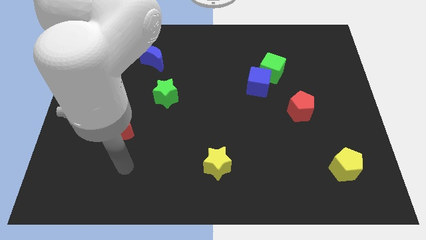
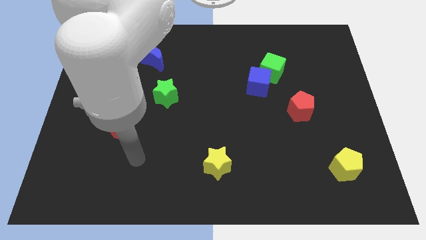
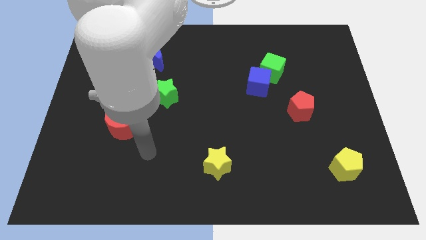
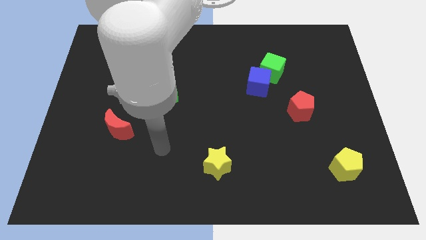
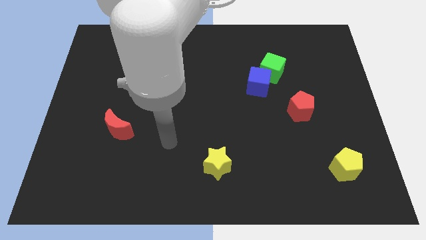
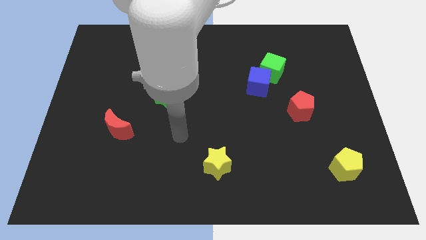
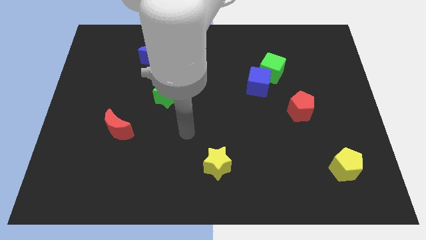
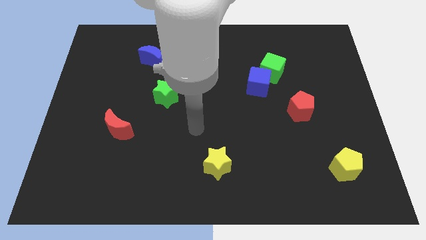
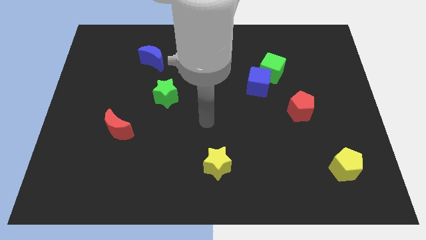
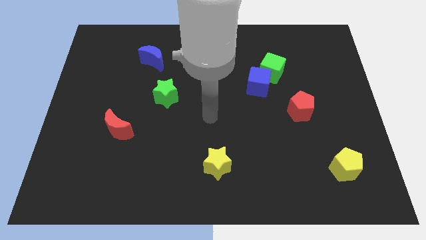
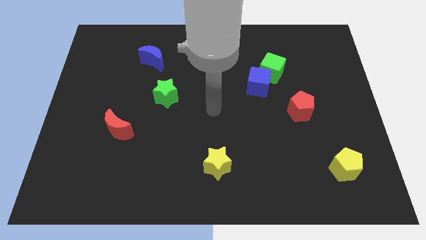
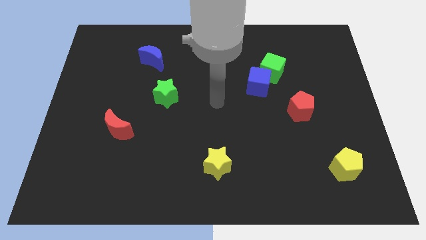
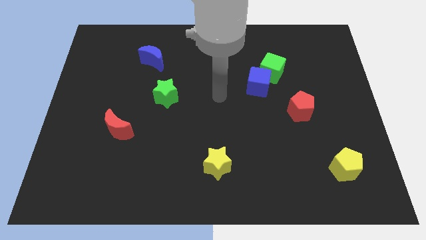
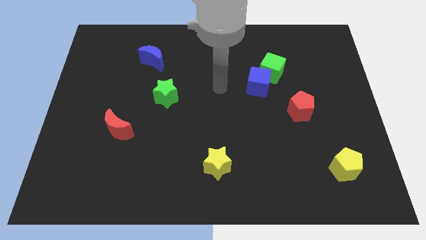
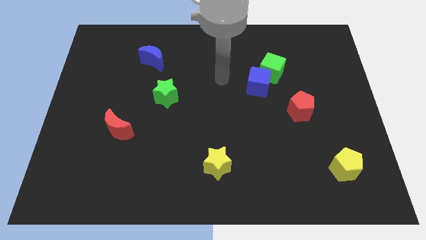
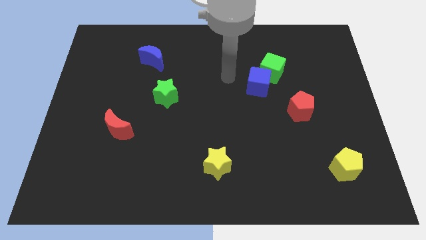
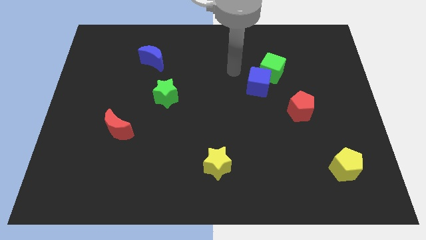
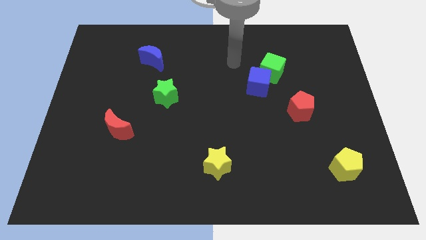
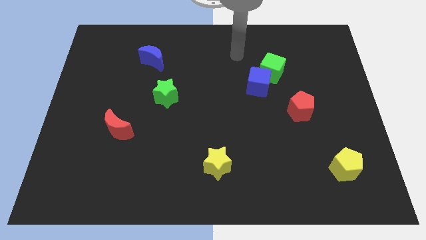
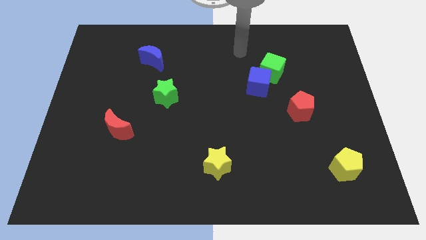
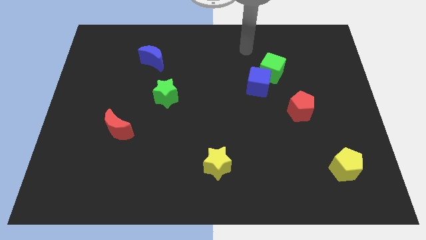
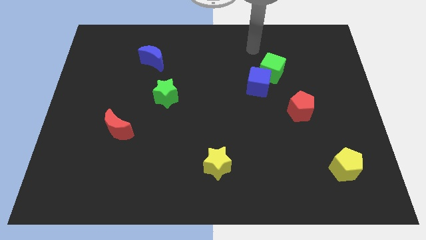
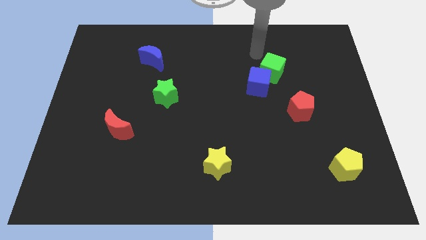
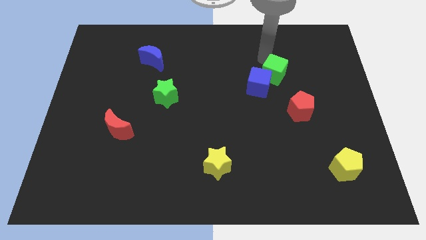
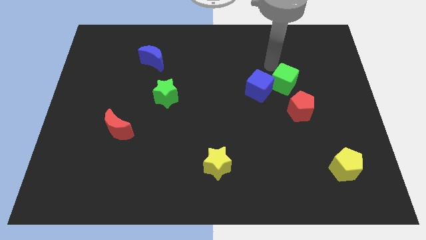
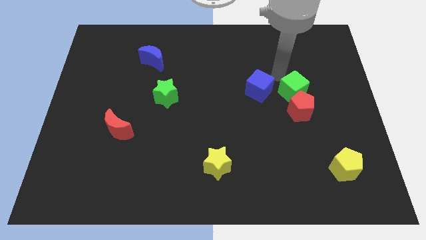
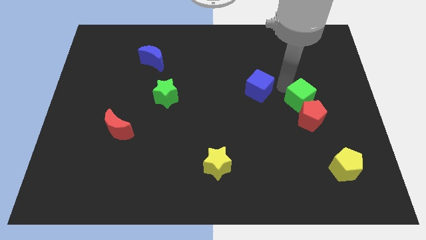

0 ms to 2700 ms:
pull the blue cube apart from the green cube

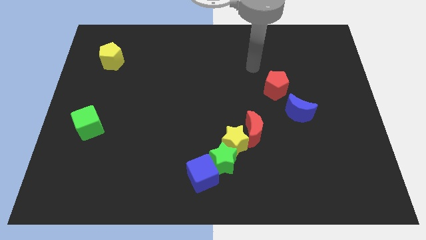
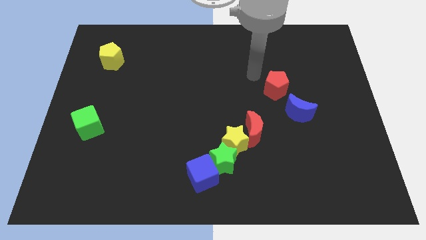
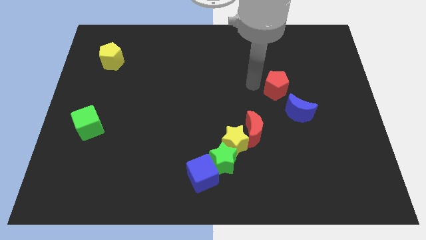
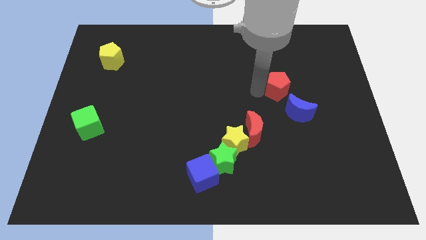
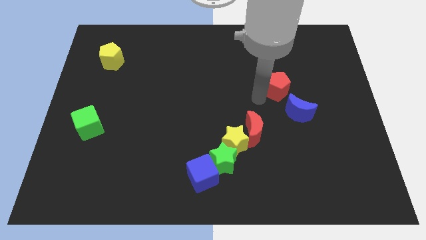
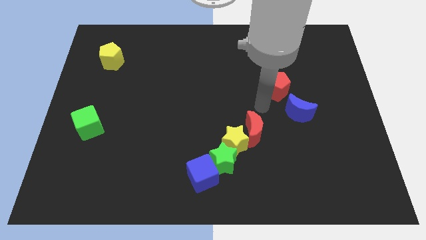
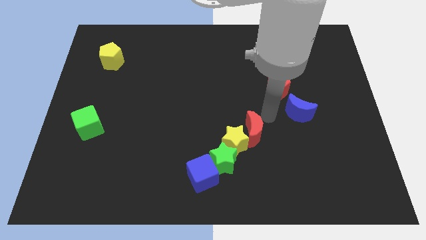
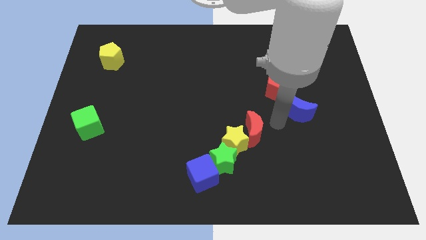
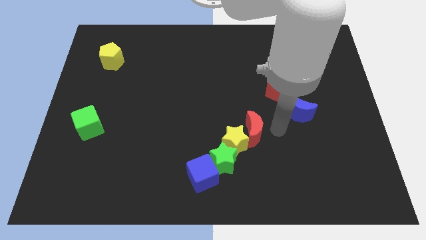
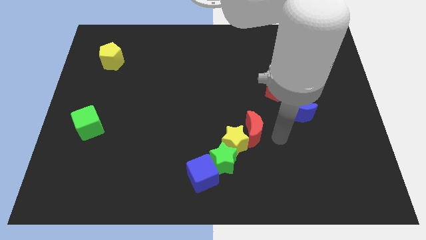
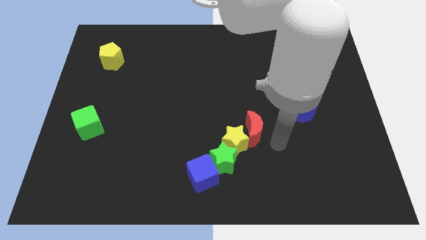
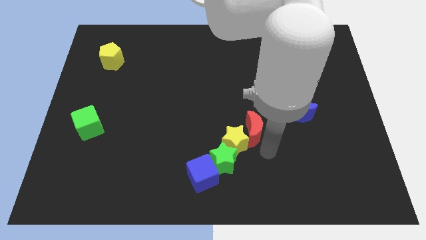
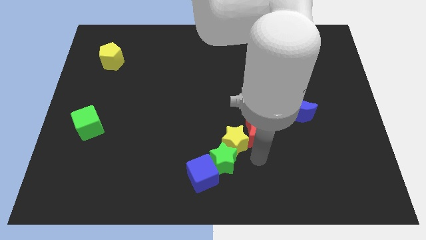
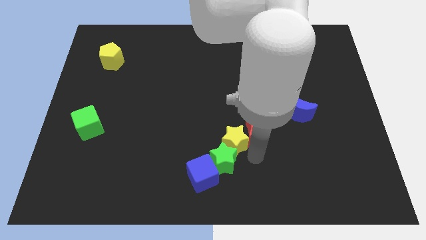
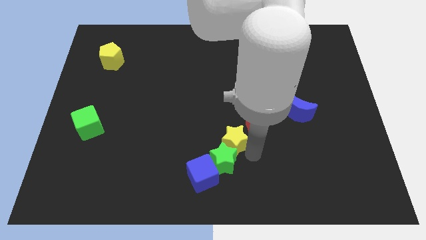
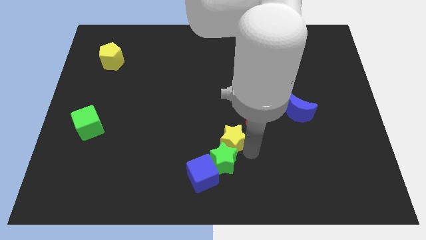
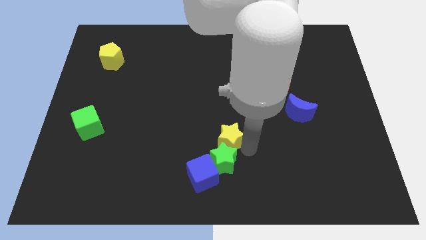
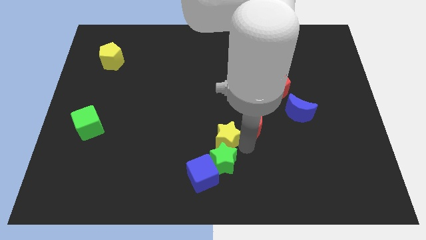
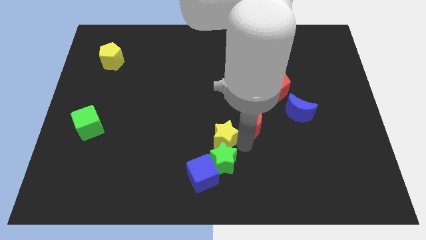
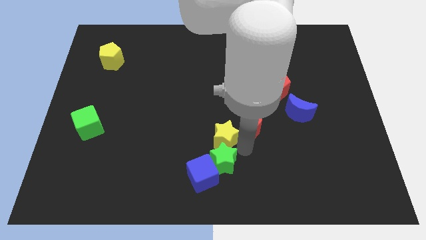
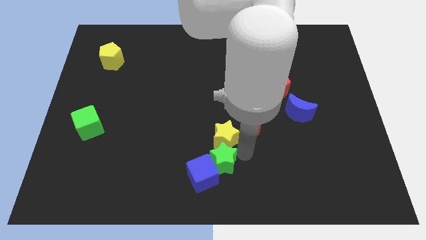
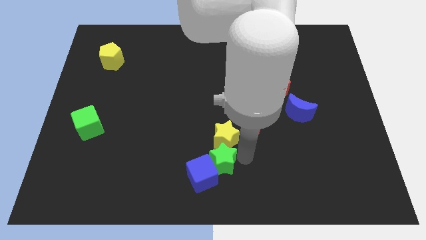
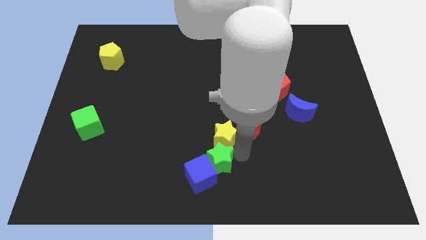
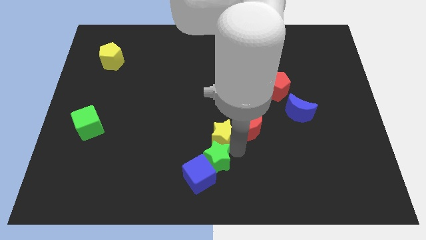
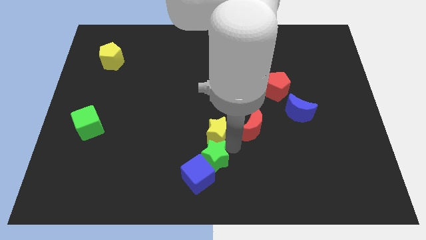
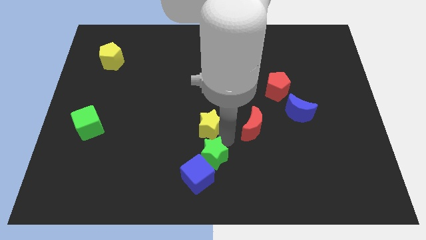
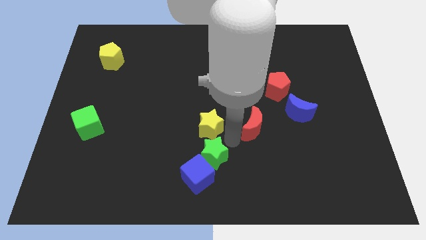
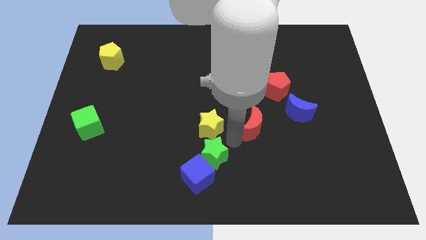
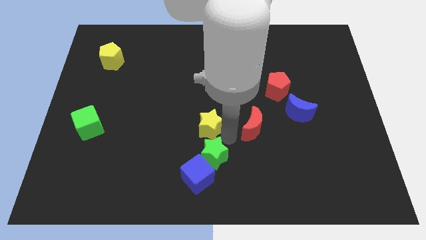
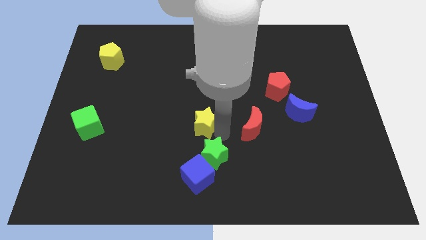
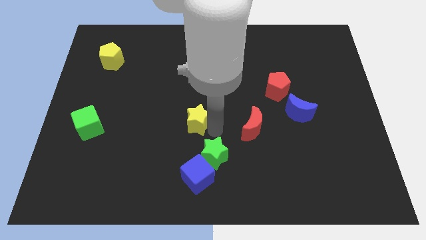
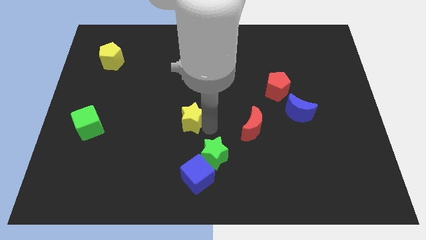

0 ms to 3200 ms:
separate the yellow star from the green star and red moon

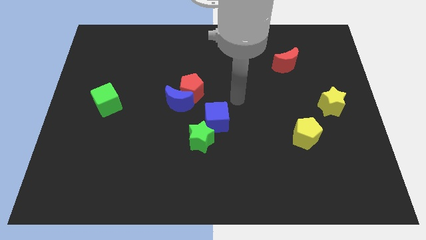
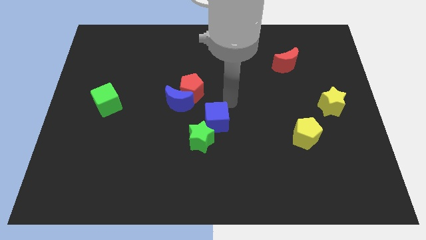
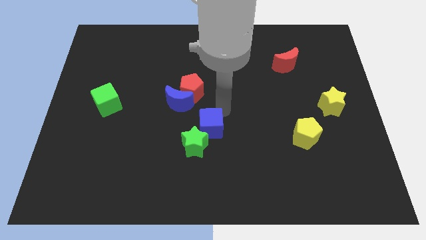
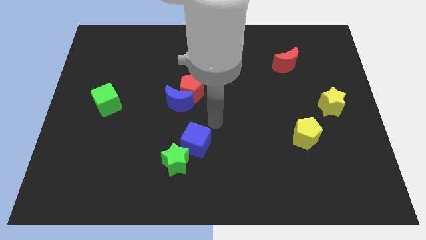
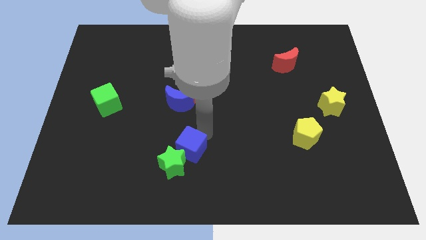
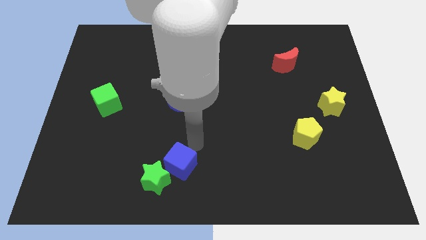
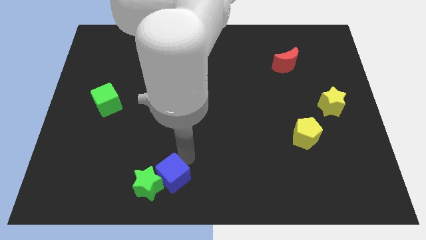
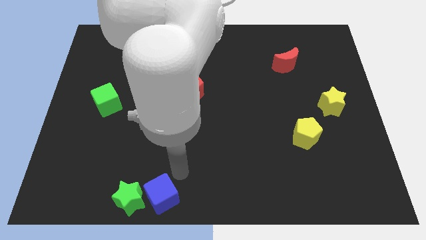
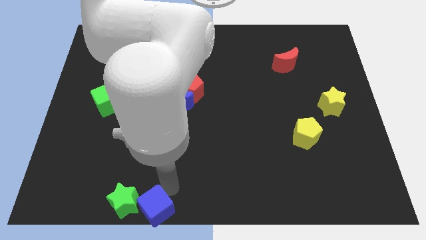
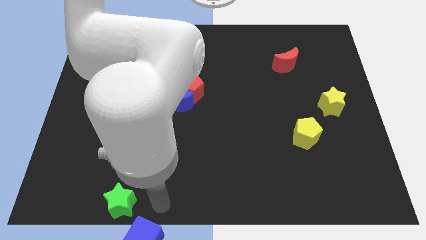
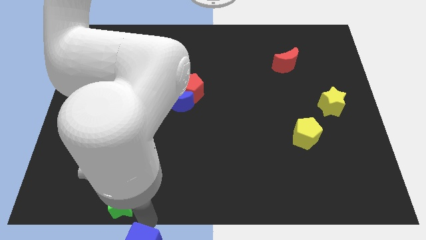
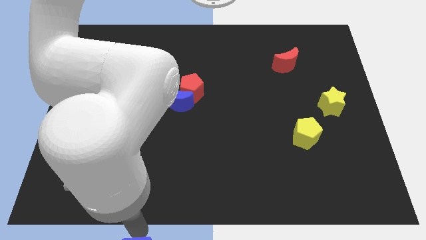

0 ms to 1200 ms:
move the green star away from the blue cube

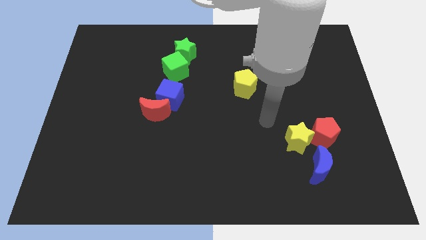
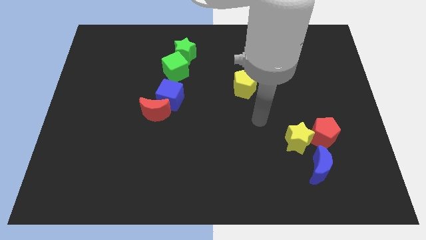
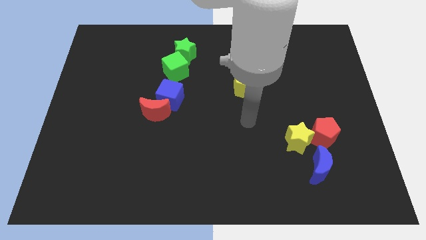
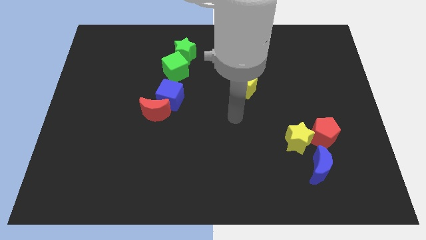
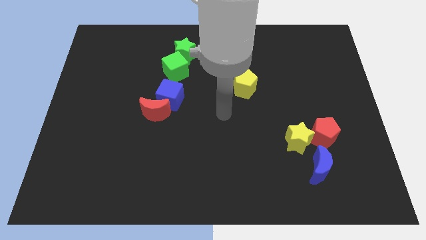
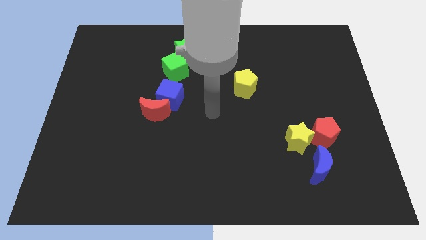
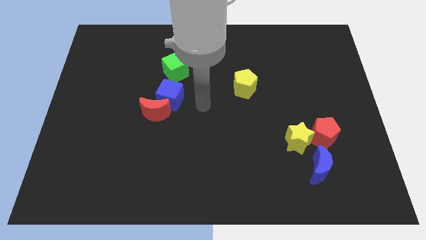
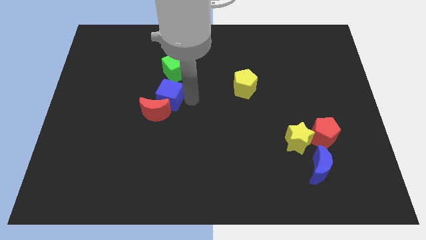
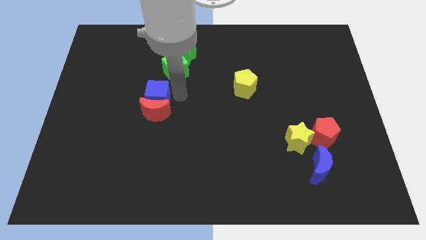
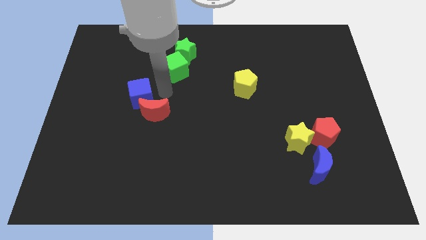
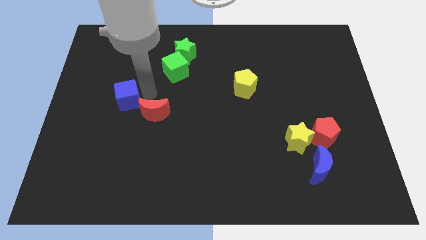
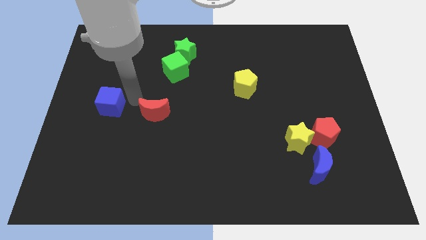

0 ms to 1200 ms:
pull the red moon apart from the blue cube

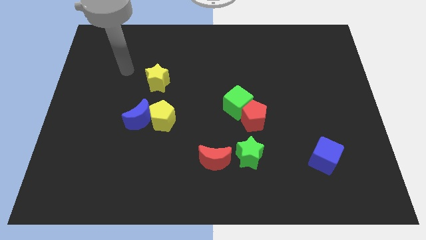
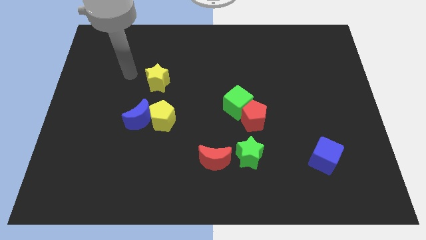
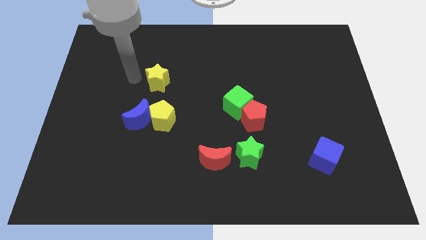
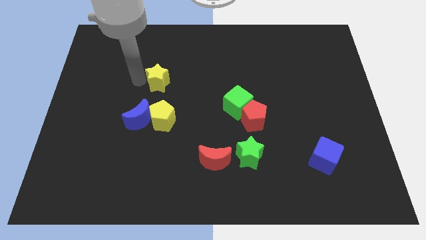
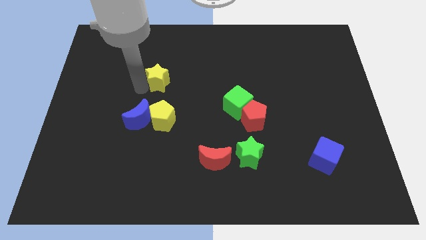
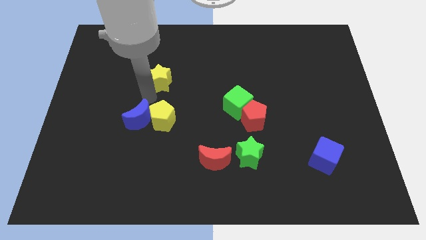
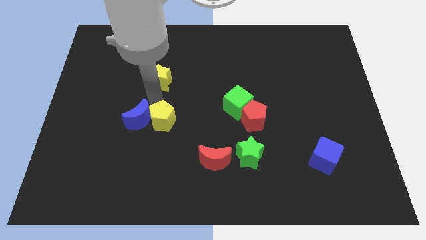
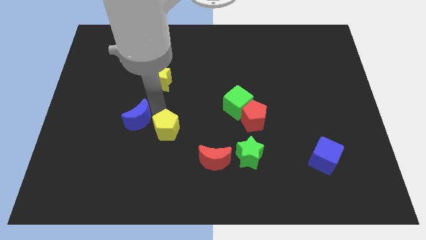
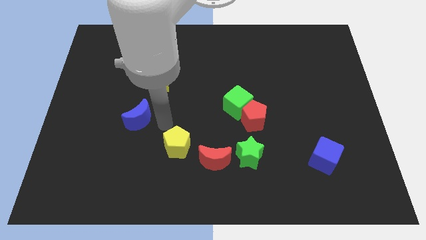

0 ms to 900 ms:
separate the blue moon from the yellow pentagon

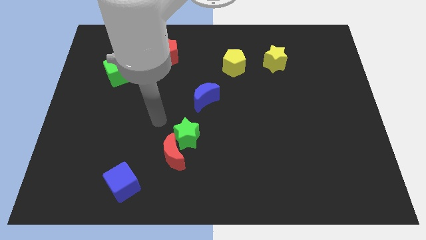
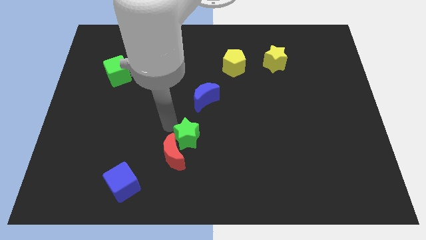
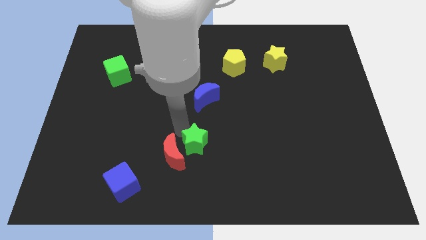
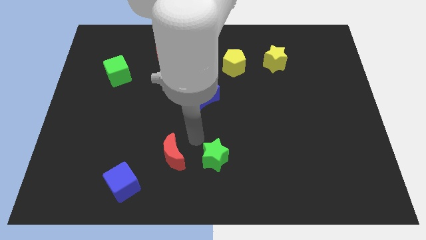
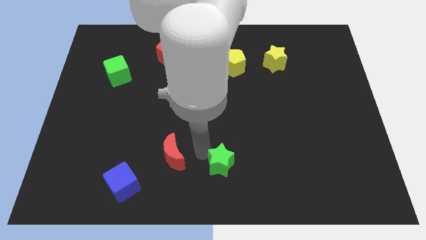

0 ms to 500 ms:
move the red moon away from the green star
